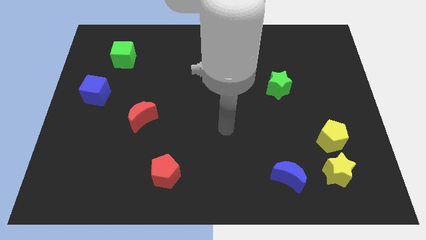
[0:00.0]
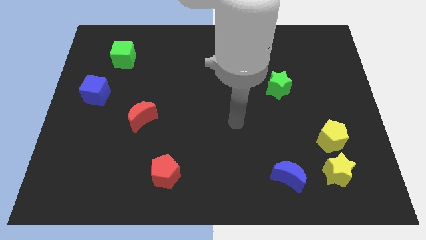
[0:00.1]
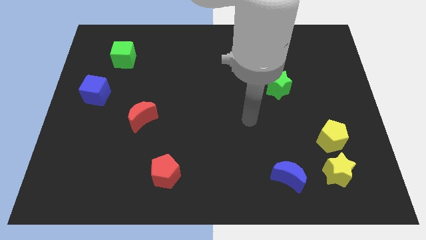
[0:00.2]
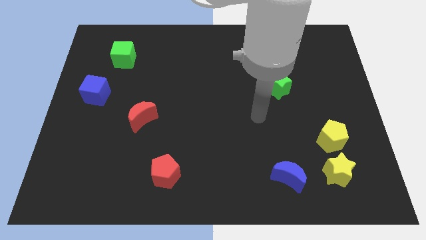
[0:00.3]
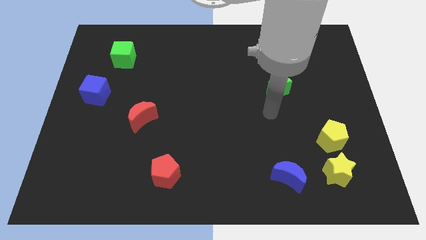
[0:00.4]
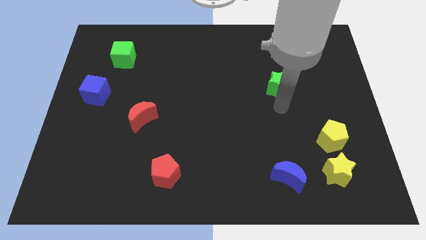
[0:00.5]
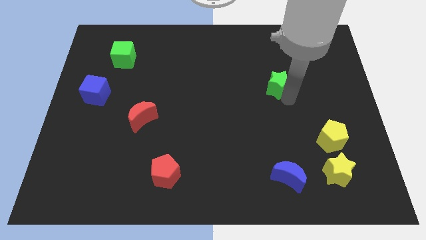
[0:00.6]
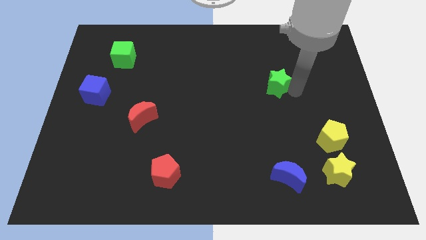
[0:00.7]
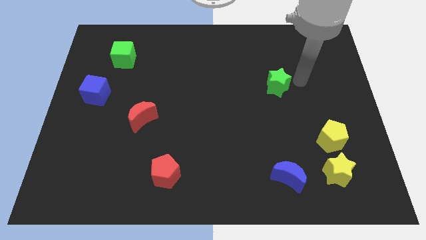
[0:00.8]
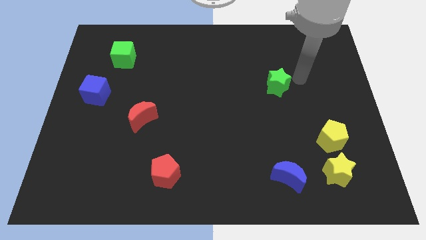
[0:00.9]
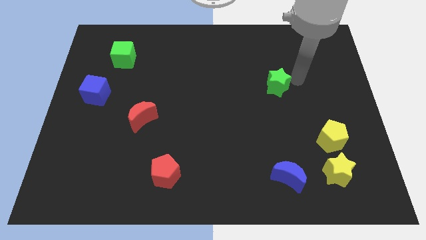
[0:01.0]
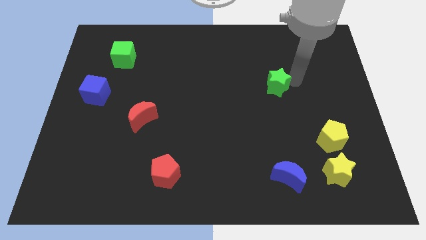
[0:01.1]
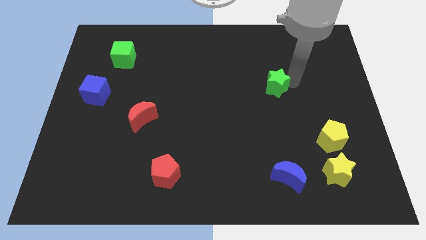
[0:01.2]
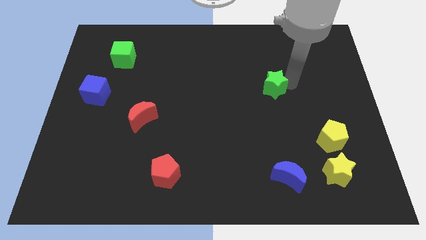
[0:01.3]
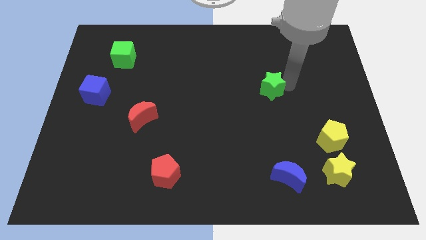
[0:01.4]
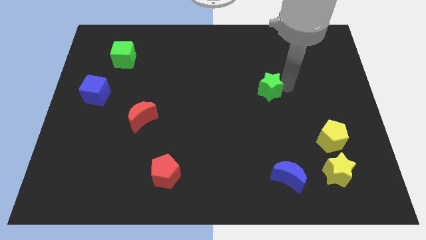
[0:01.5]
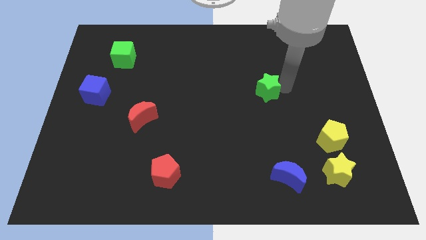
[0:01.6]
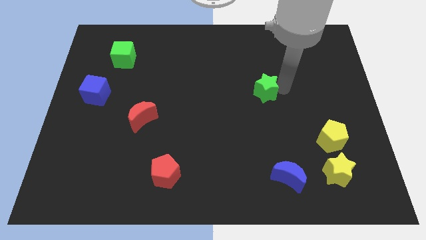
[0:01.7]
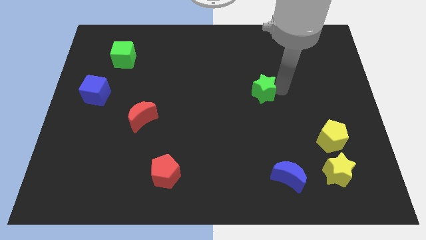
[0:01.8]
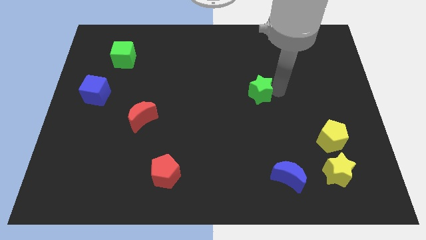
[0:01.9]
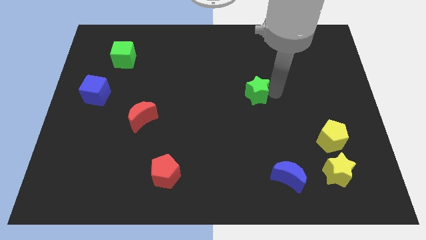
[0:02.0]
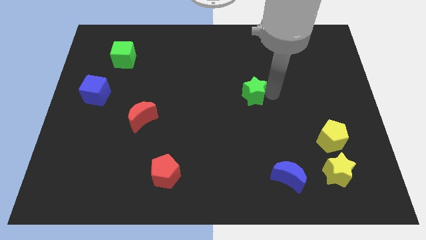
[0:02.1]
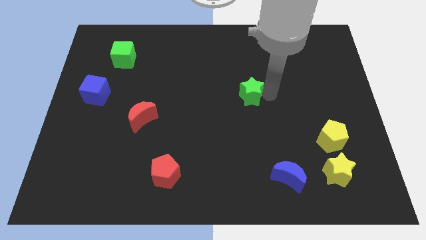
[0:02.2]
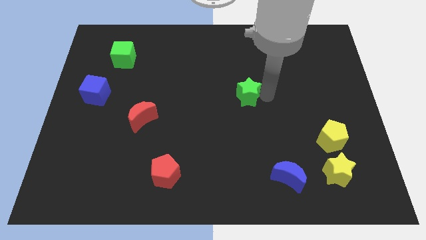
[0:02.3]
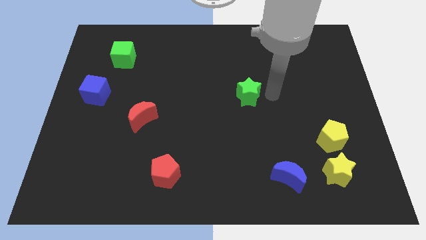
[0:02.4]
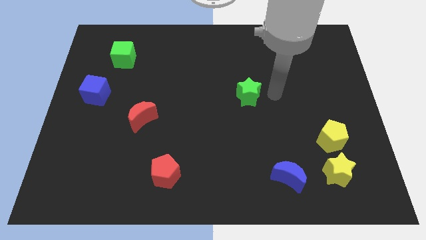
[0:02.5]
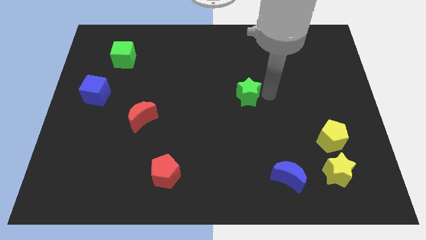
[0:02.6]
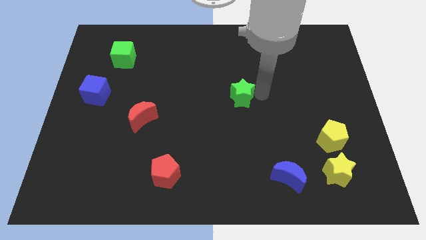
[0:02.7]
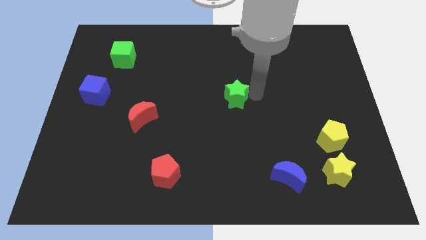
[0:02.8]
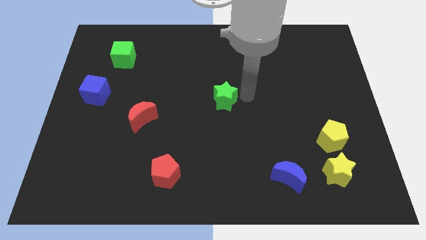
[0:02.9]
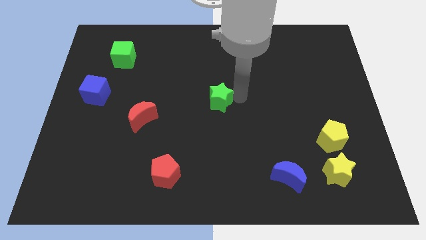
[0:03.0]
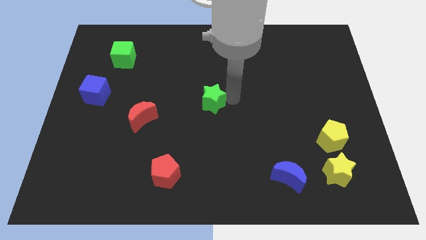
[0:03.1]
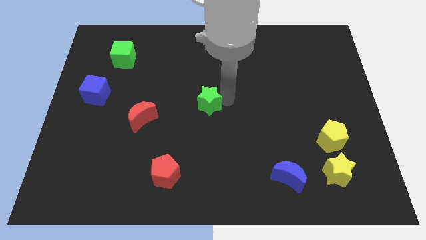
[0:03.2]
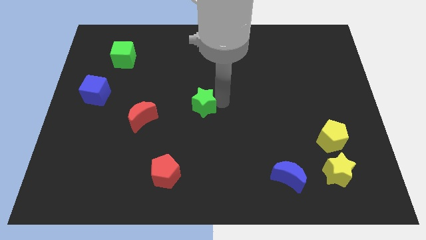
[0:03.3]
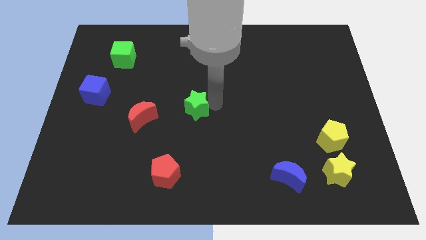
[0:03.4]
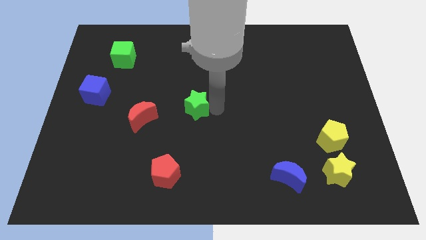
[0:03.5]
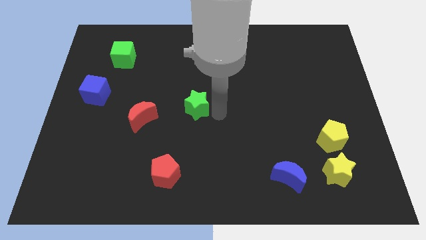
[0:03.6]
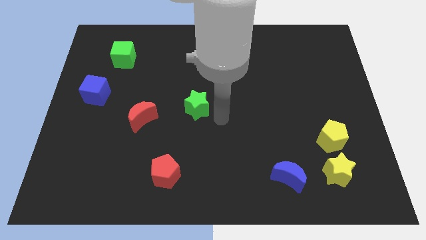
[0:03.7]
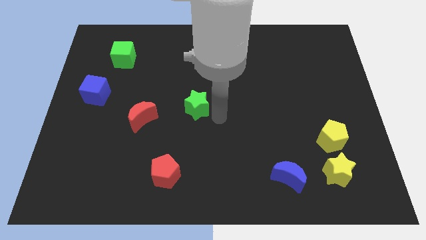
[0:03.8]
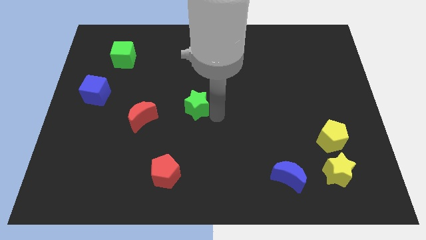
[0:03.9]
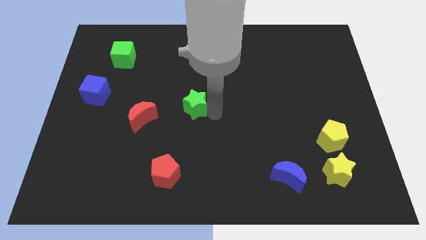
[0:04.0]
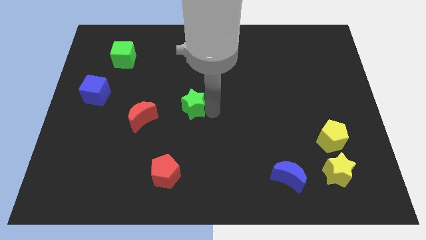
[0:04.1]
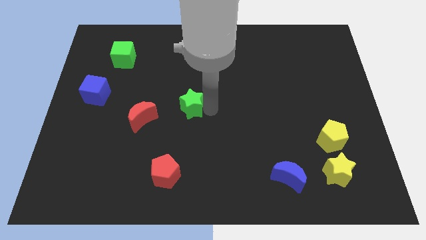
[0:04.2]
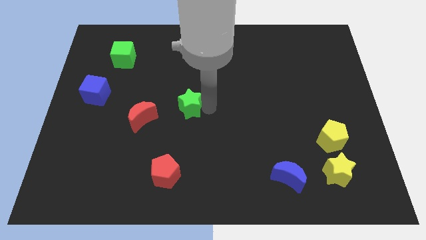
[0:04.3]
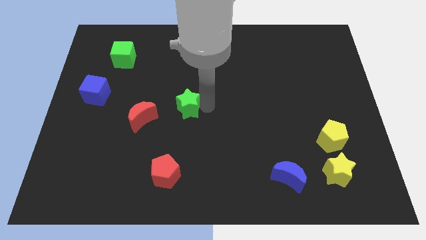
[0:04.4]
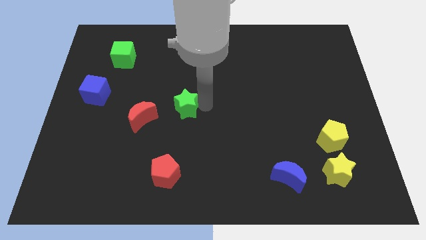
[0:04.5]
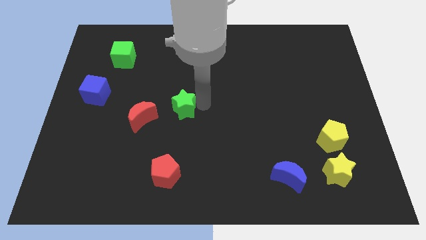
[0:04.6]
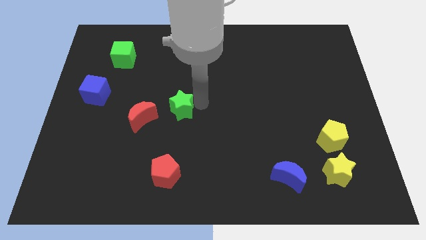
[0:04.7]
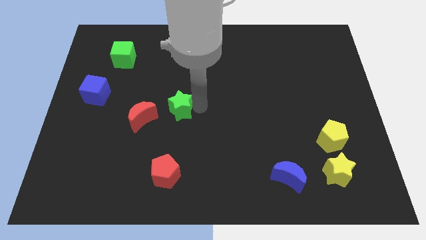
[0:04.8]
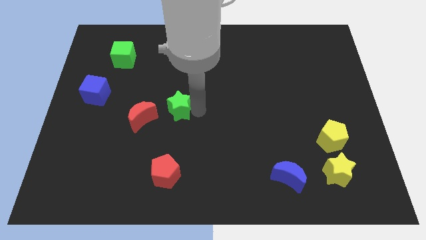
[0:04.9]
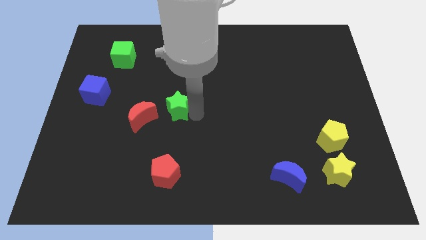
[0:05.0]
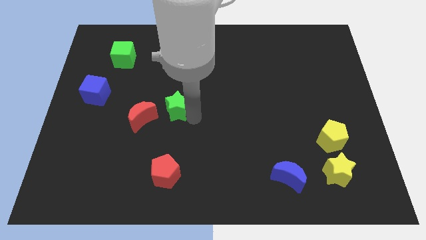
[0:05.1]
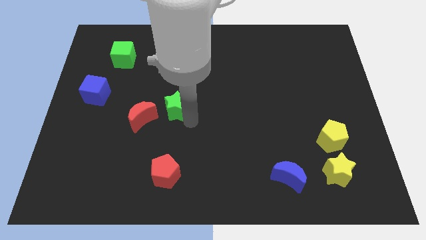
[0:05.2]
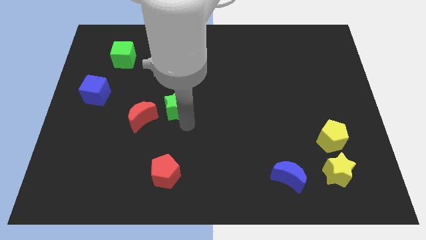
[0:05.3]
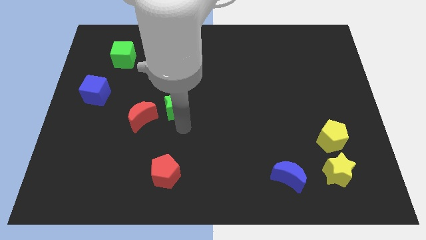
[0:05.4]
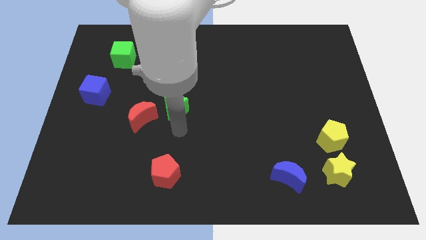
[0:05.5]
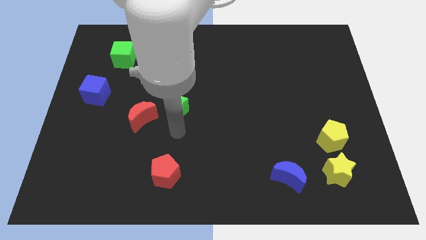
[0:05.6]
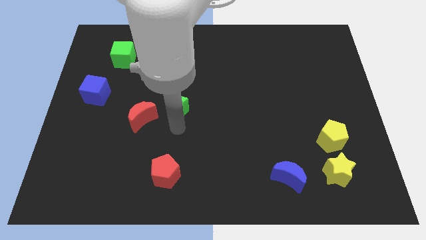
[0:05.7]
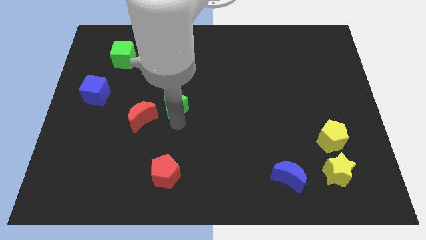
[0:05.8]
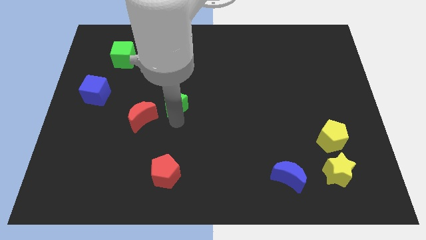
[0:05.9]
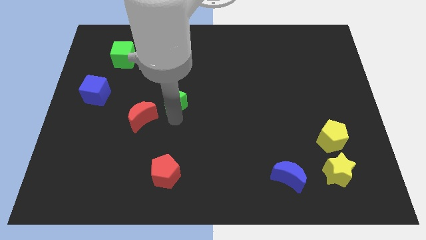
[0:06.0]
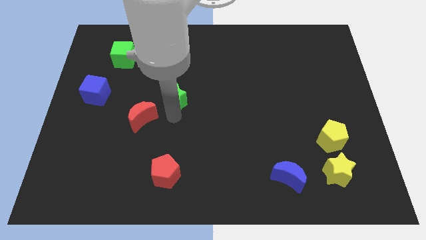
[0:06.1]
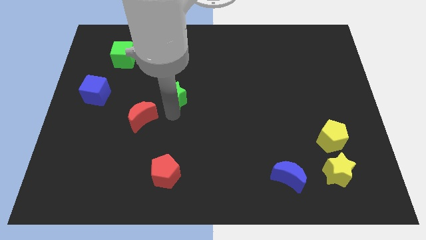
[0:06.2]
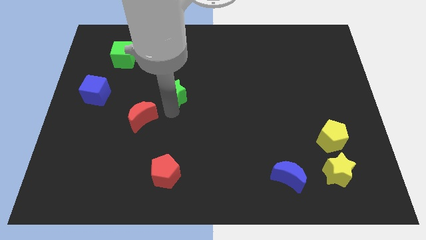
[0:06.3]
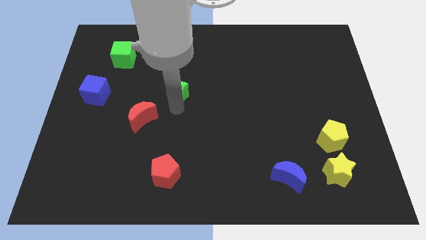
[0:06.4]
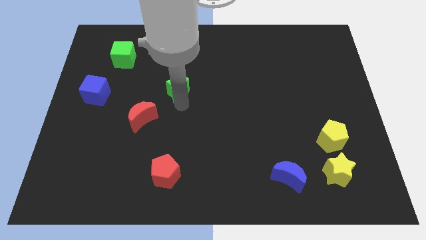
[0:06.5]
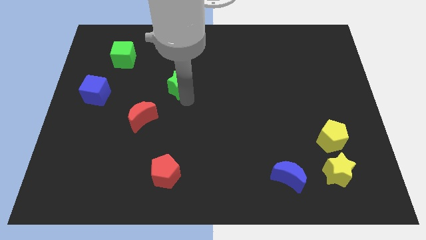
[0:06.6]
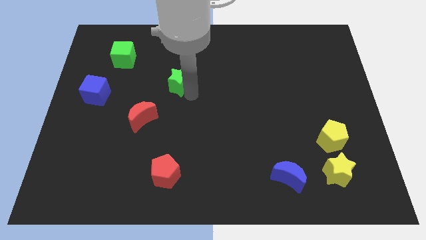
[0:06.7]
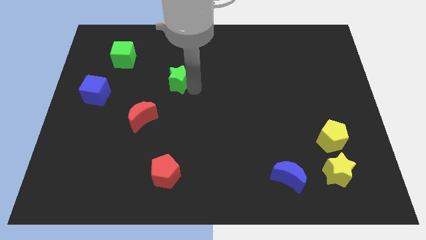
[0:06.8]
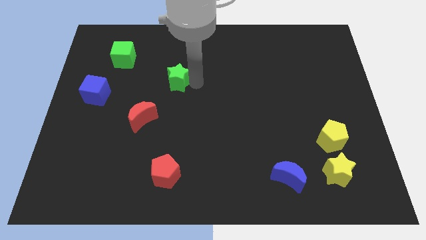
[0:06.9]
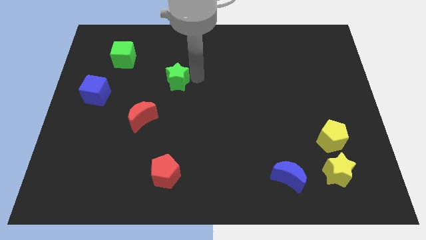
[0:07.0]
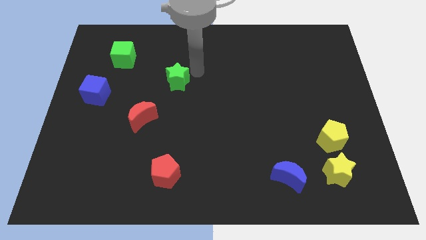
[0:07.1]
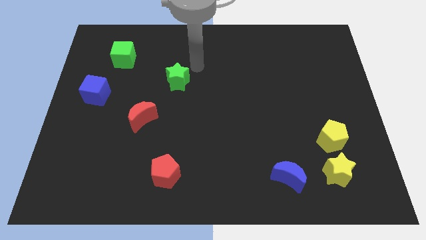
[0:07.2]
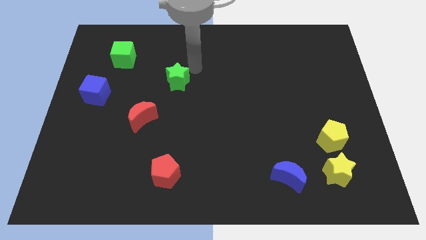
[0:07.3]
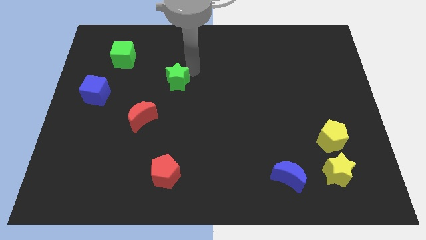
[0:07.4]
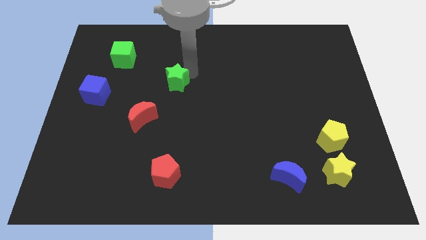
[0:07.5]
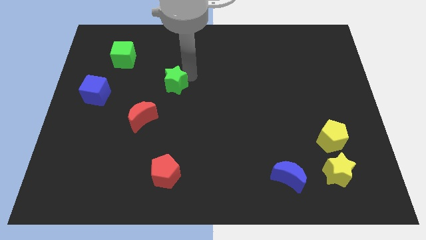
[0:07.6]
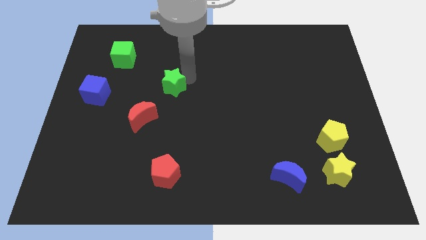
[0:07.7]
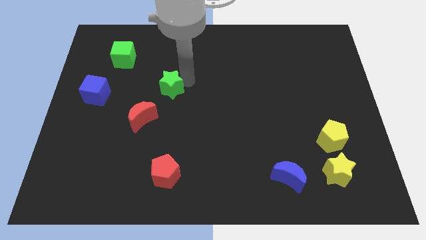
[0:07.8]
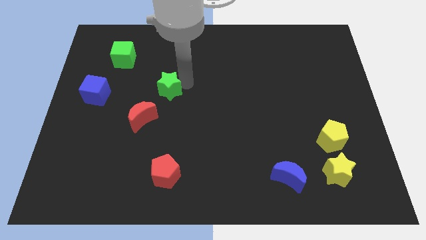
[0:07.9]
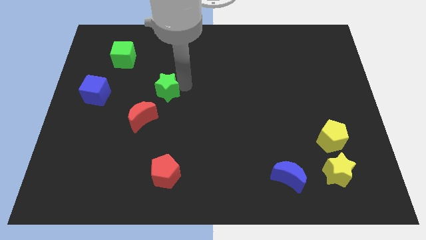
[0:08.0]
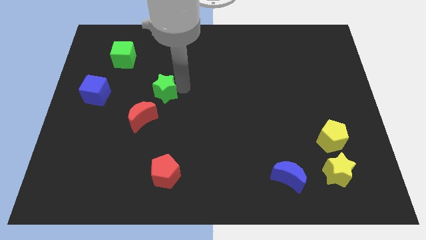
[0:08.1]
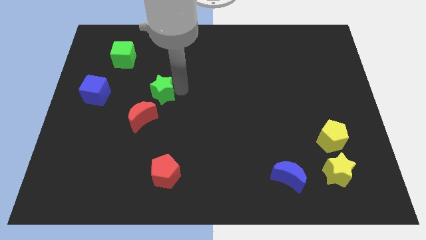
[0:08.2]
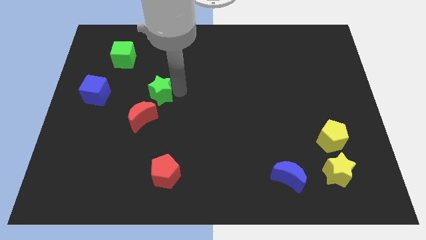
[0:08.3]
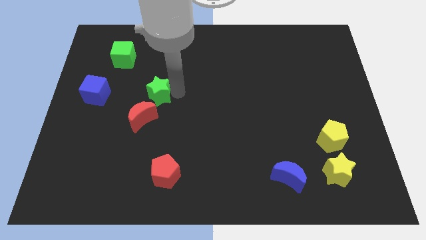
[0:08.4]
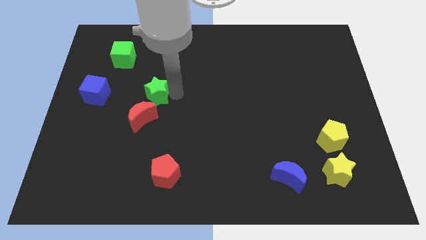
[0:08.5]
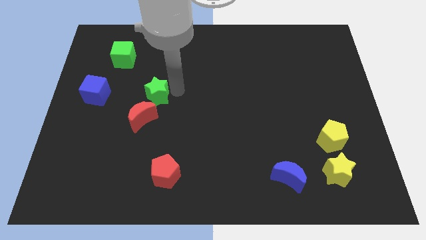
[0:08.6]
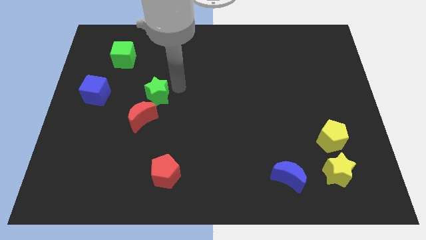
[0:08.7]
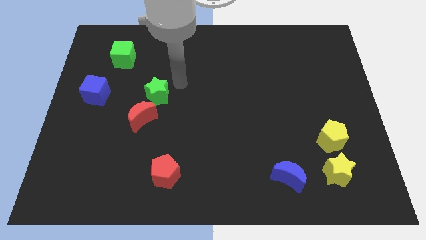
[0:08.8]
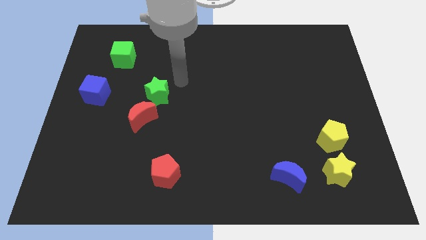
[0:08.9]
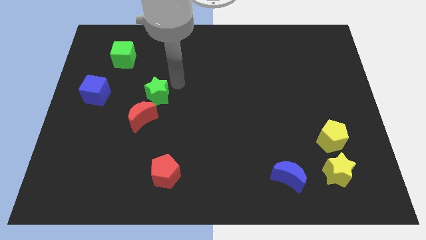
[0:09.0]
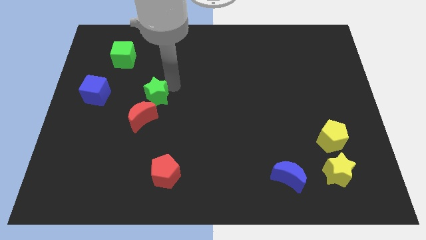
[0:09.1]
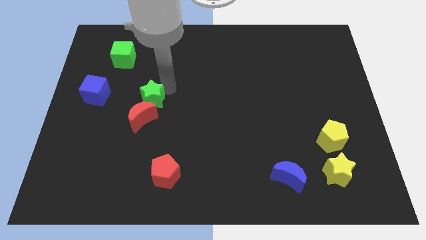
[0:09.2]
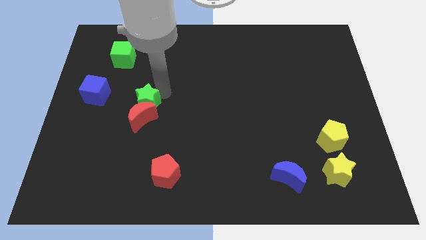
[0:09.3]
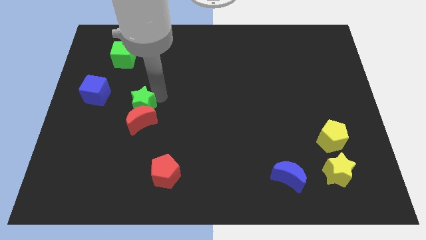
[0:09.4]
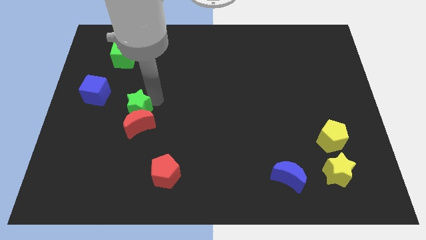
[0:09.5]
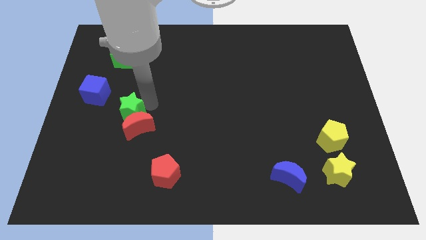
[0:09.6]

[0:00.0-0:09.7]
push the green star to the bottom right of the blue cube
